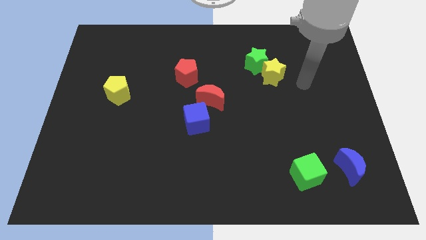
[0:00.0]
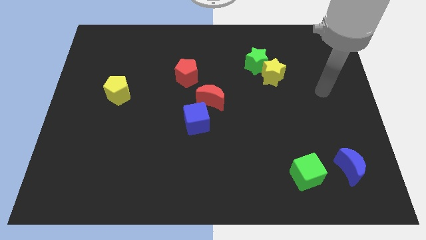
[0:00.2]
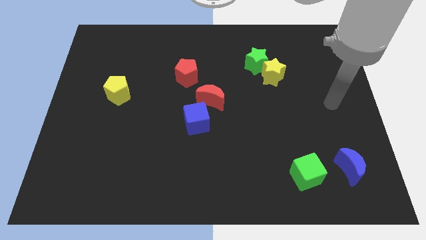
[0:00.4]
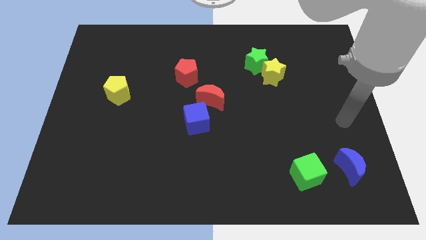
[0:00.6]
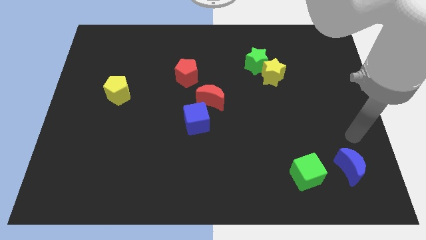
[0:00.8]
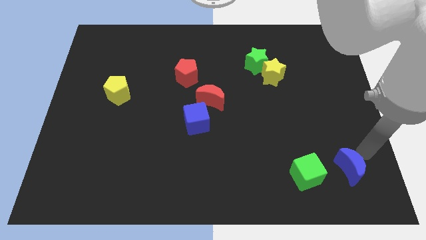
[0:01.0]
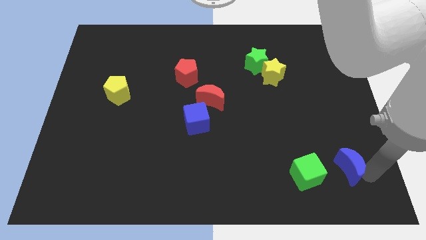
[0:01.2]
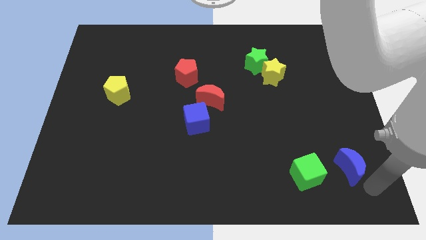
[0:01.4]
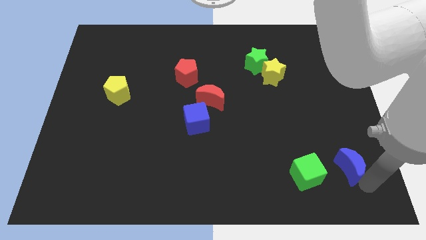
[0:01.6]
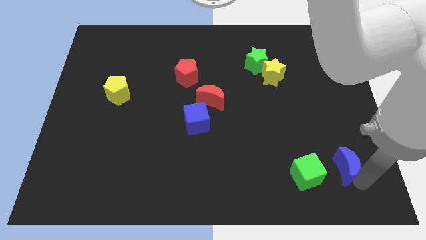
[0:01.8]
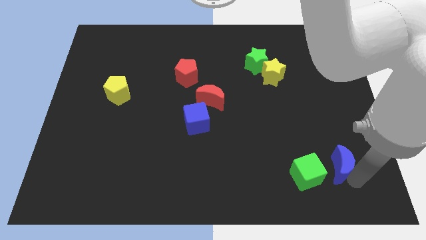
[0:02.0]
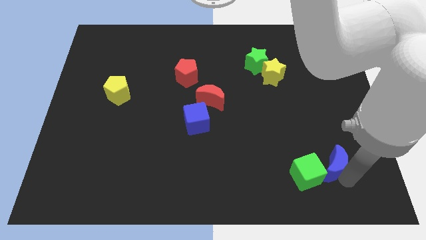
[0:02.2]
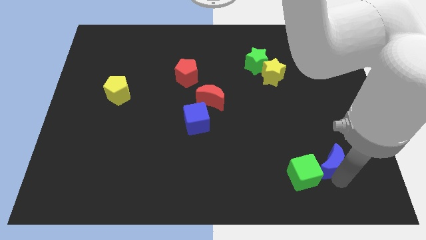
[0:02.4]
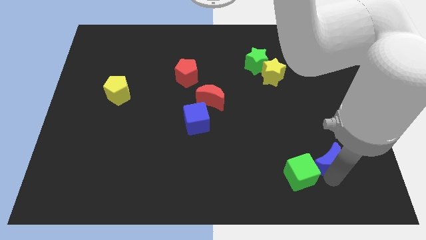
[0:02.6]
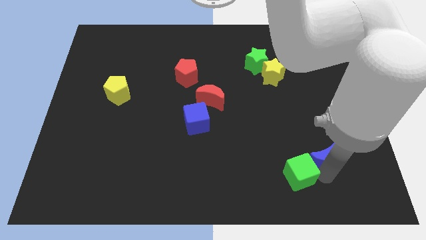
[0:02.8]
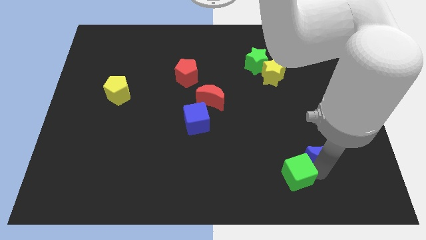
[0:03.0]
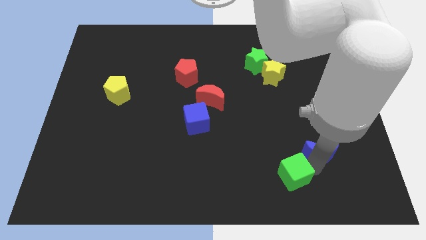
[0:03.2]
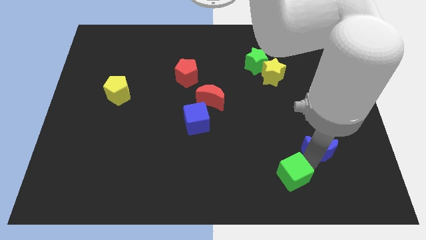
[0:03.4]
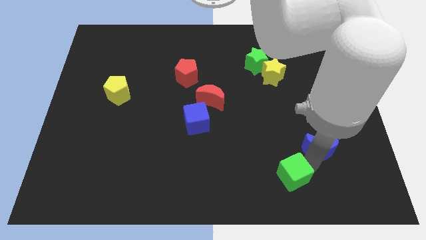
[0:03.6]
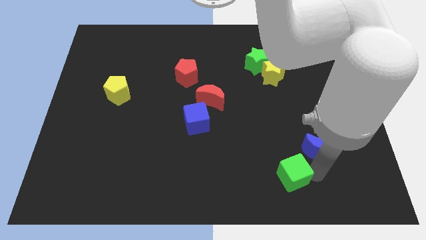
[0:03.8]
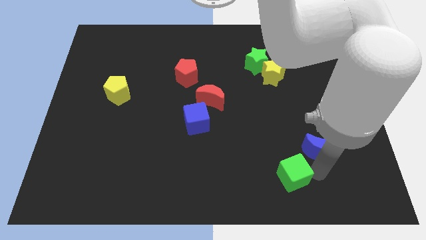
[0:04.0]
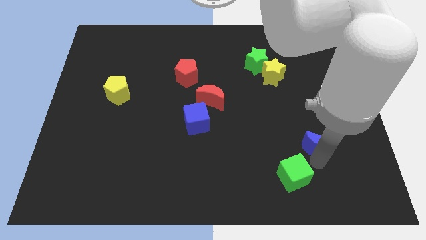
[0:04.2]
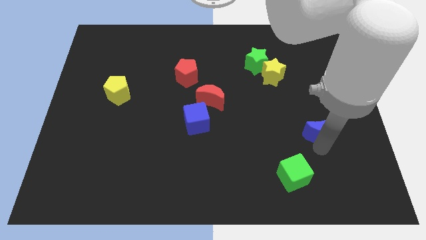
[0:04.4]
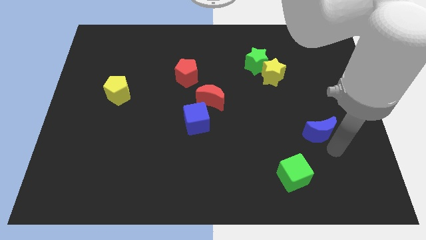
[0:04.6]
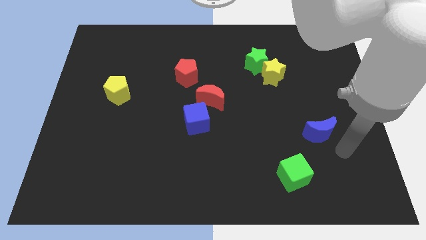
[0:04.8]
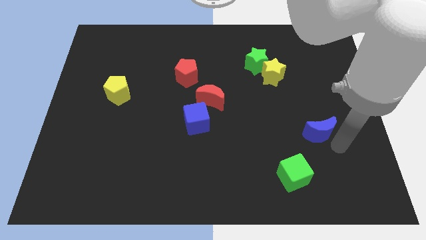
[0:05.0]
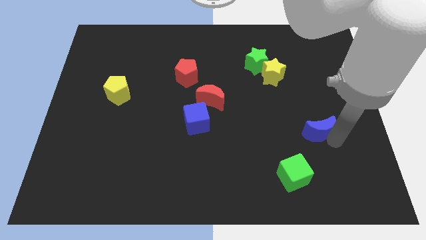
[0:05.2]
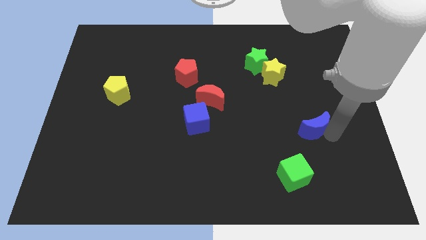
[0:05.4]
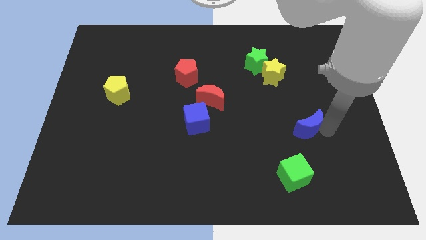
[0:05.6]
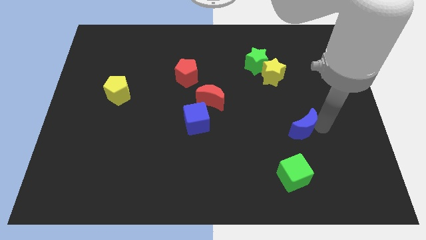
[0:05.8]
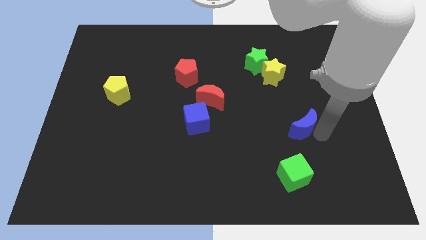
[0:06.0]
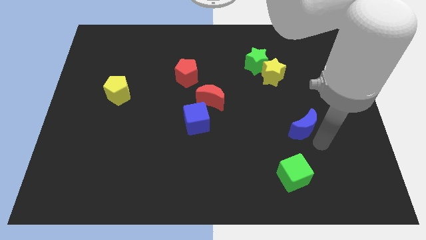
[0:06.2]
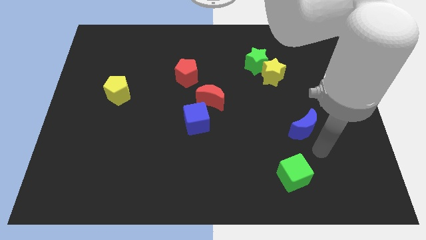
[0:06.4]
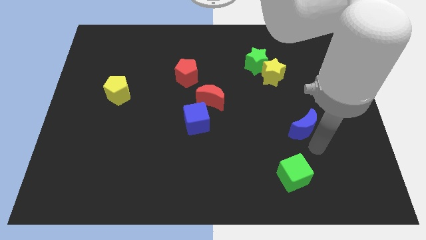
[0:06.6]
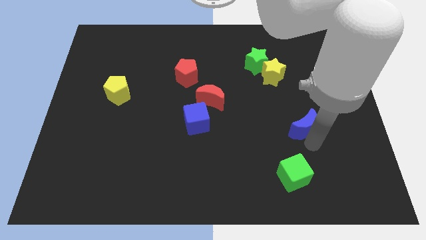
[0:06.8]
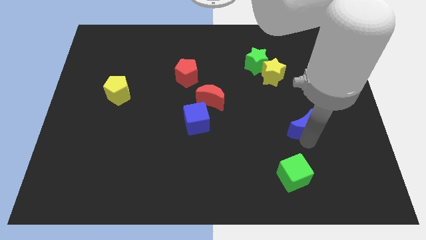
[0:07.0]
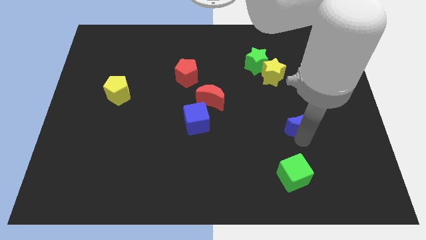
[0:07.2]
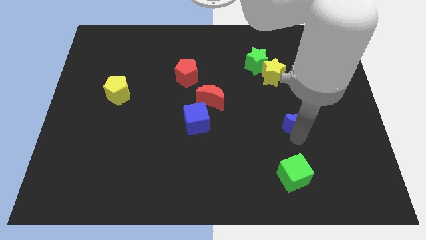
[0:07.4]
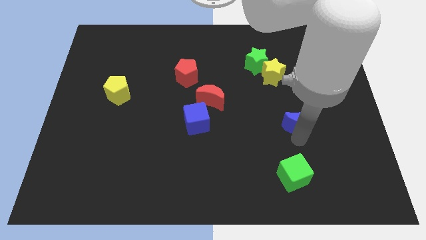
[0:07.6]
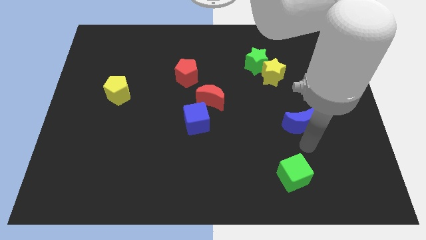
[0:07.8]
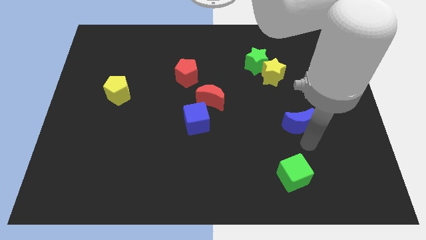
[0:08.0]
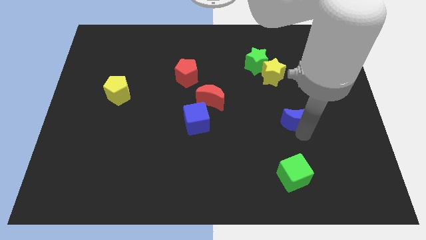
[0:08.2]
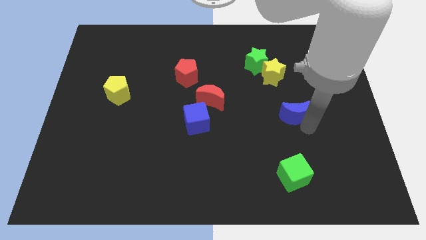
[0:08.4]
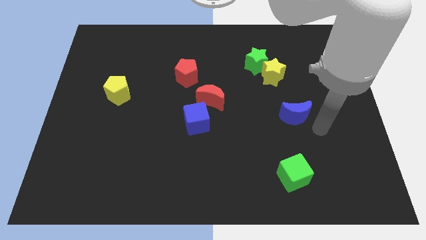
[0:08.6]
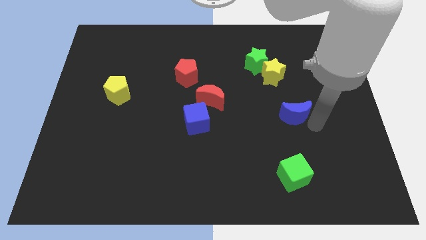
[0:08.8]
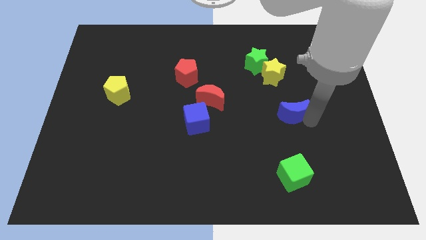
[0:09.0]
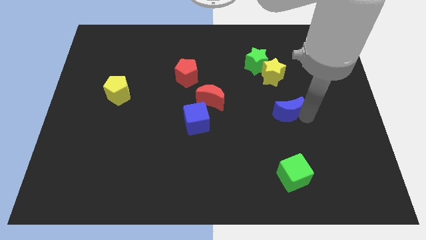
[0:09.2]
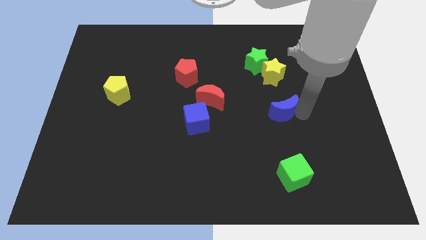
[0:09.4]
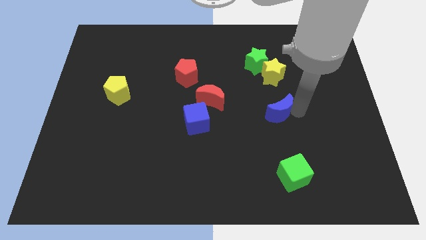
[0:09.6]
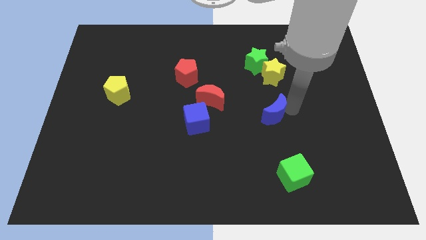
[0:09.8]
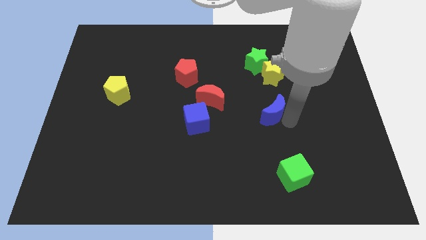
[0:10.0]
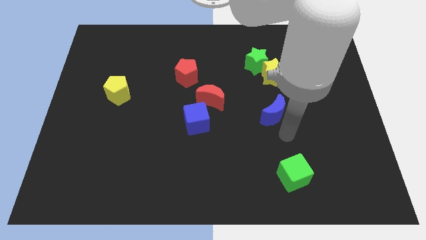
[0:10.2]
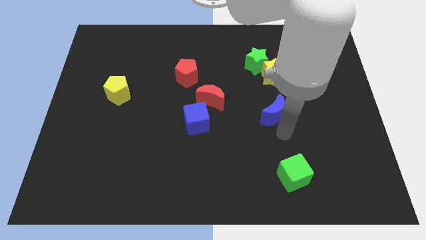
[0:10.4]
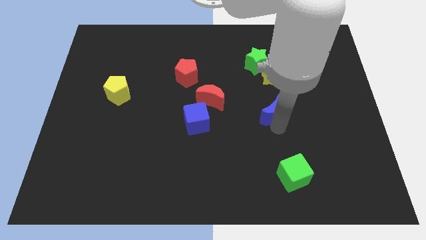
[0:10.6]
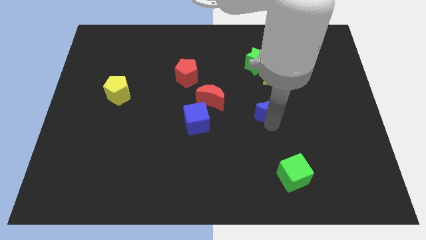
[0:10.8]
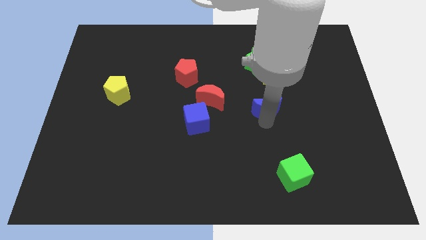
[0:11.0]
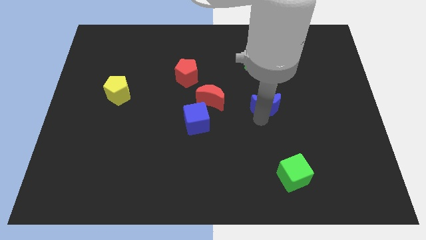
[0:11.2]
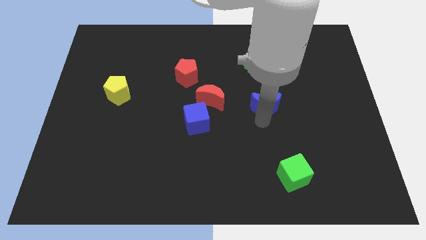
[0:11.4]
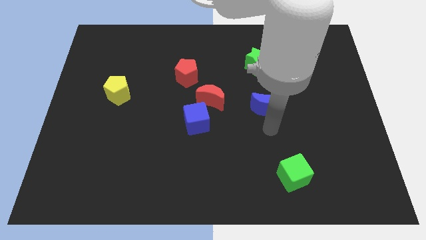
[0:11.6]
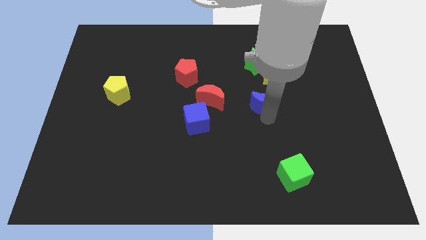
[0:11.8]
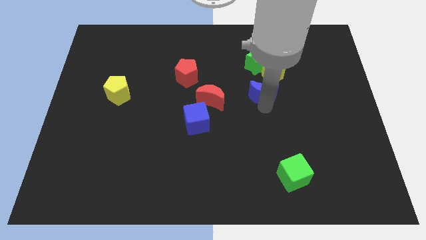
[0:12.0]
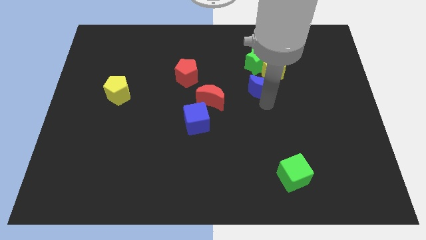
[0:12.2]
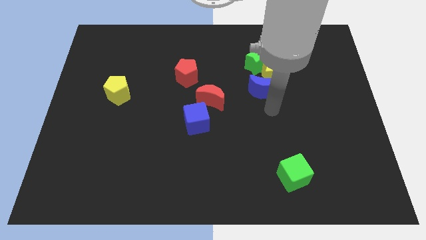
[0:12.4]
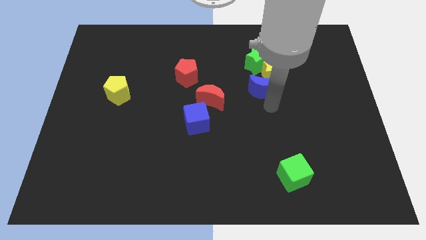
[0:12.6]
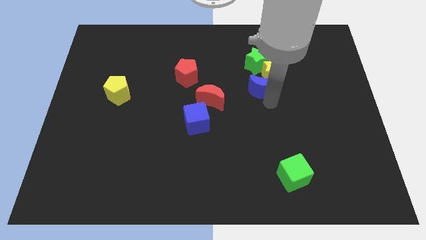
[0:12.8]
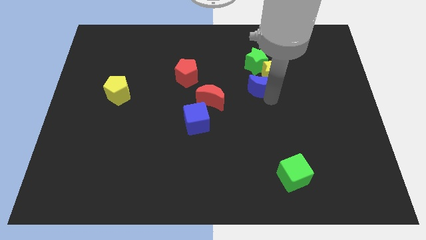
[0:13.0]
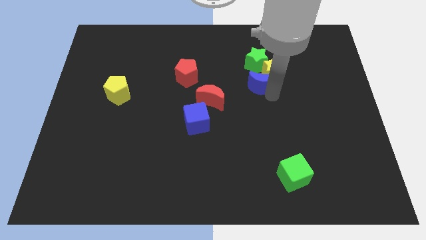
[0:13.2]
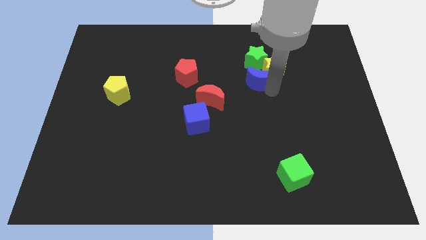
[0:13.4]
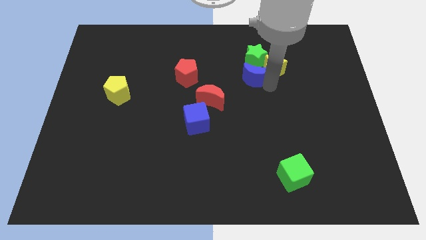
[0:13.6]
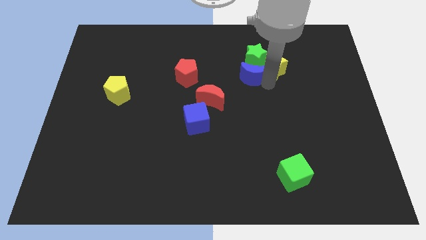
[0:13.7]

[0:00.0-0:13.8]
slide the blue moon towards the green star

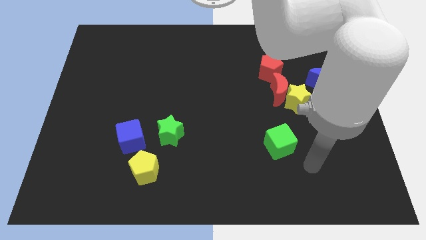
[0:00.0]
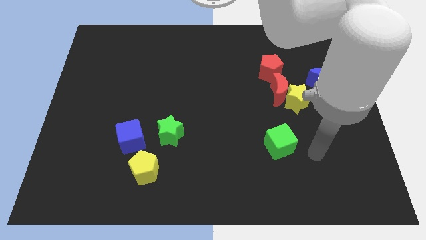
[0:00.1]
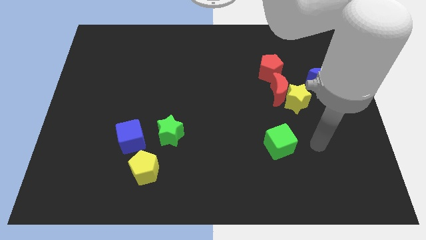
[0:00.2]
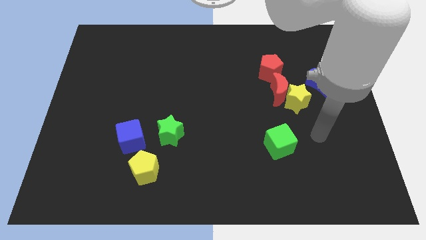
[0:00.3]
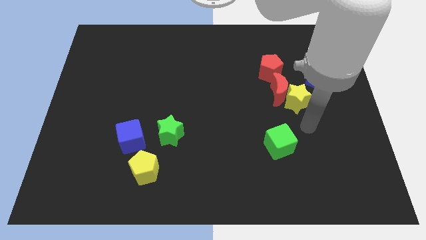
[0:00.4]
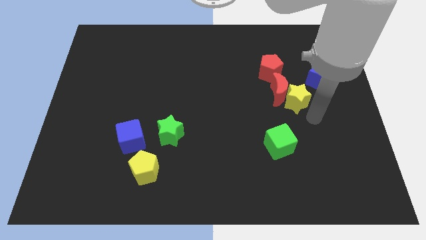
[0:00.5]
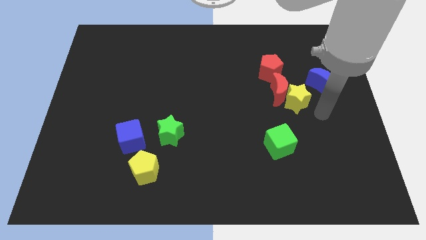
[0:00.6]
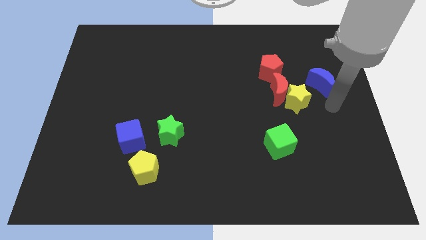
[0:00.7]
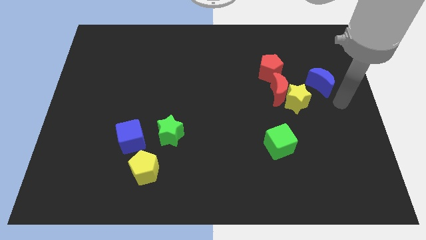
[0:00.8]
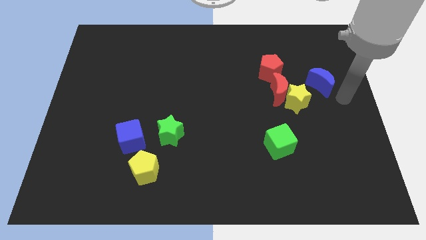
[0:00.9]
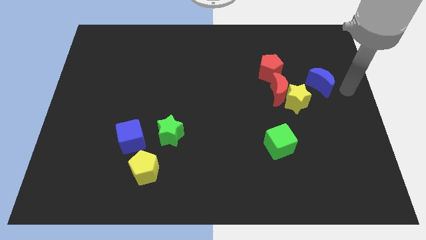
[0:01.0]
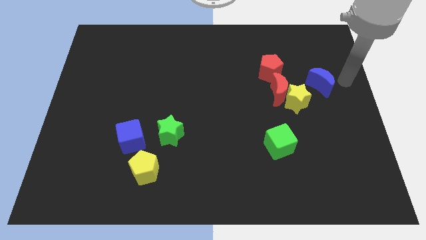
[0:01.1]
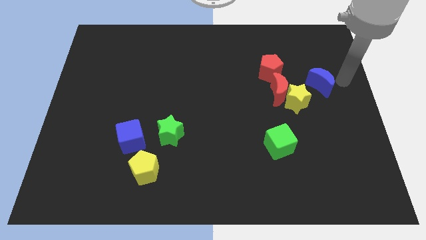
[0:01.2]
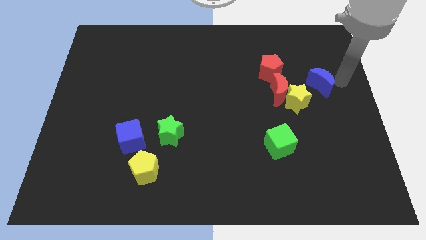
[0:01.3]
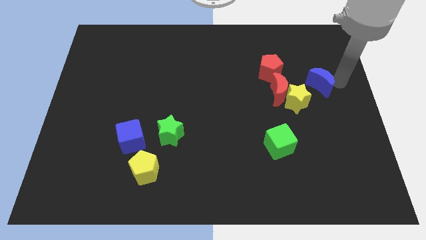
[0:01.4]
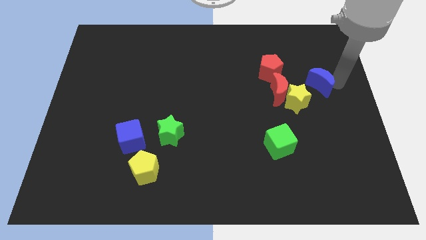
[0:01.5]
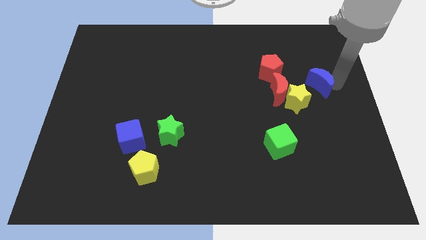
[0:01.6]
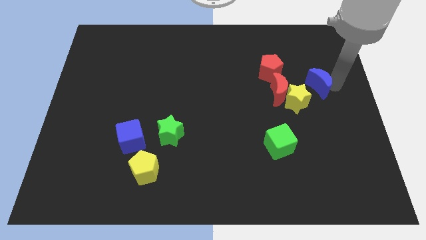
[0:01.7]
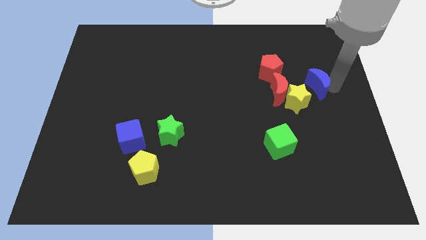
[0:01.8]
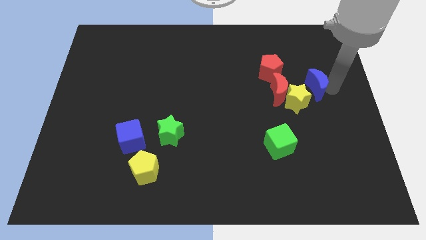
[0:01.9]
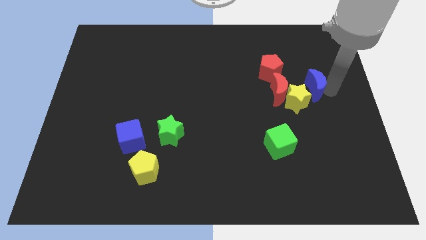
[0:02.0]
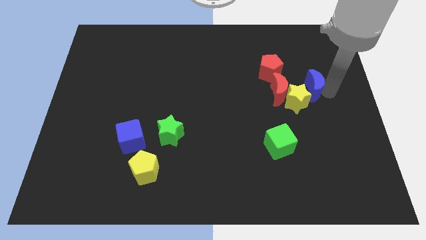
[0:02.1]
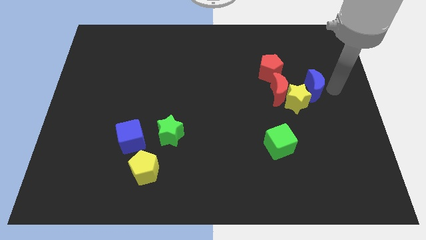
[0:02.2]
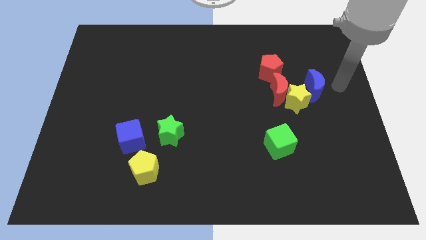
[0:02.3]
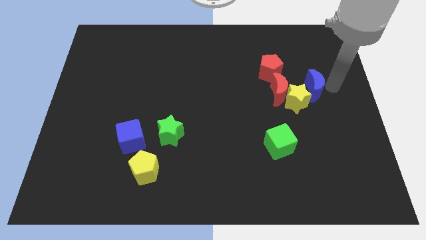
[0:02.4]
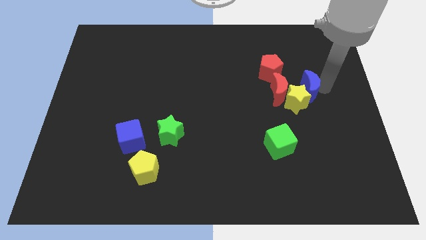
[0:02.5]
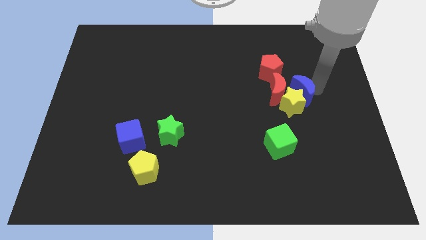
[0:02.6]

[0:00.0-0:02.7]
put the blue moon next to the red moon
